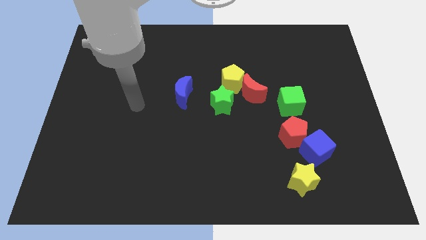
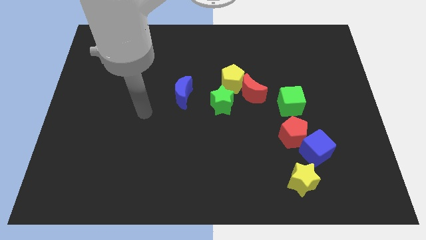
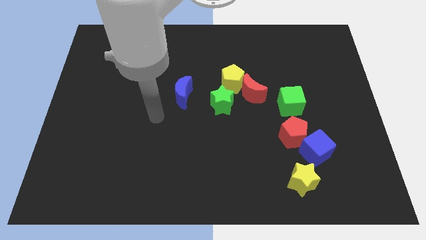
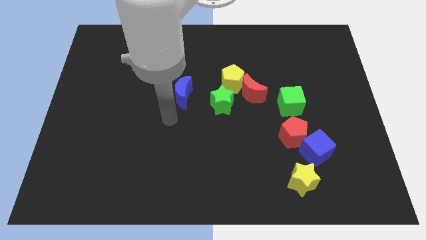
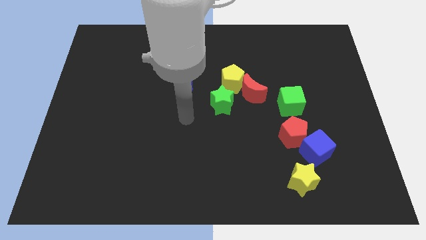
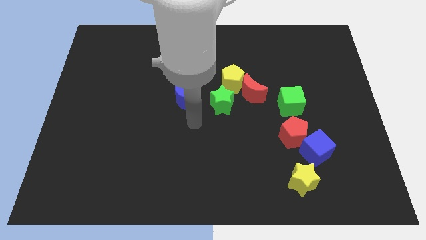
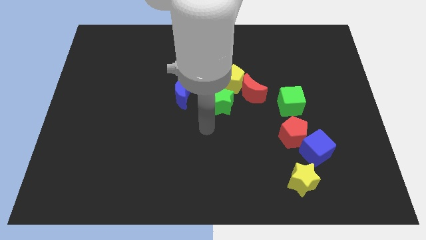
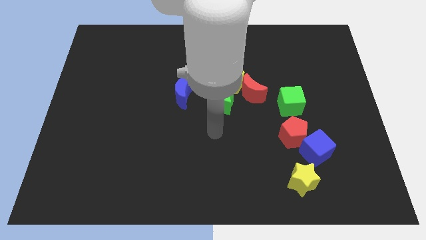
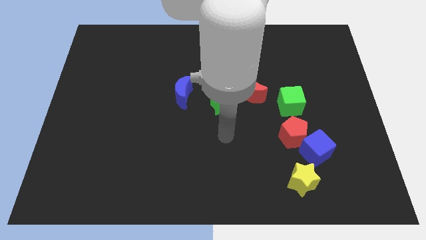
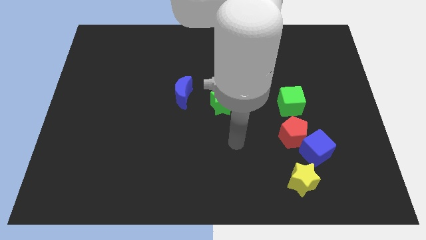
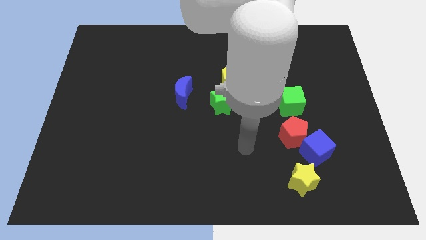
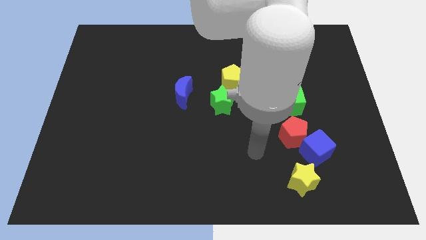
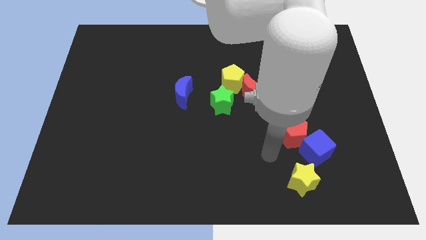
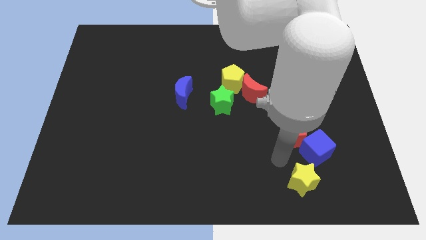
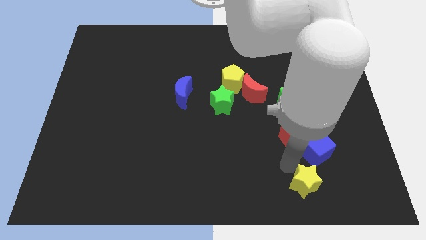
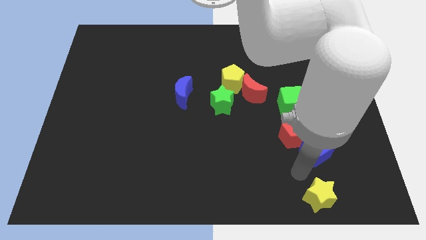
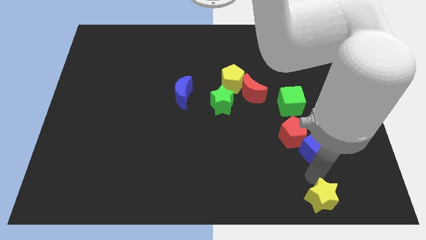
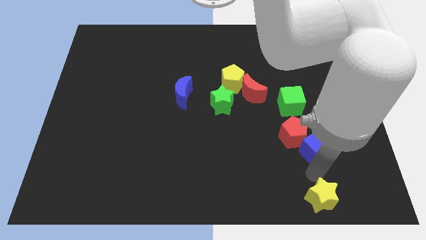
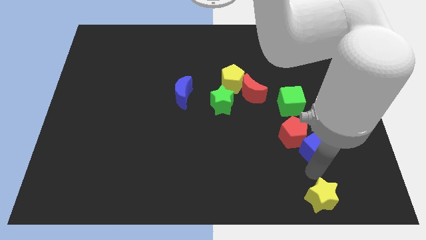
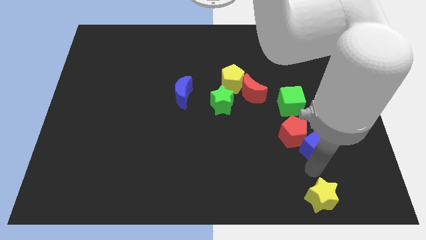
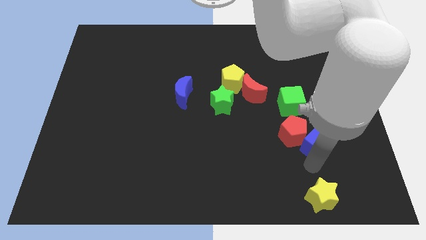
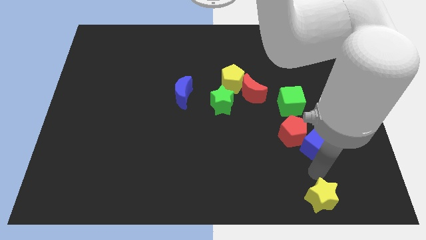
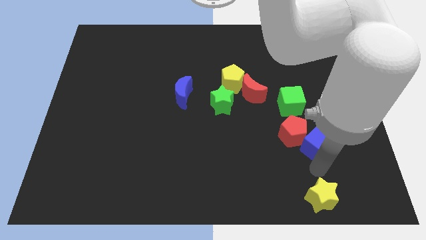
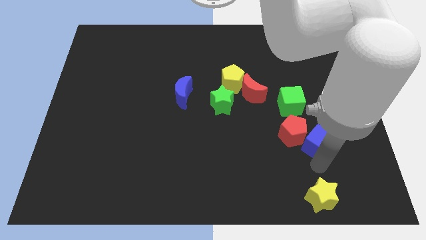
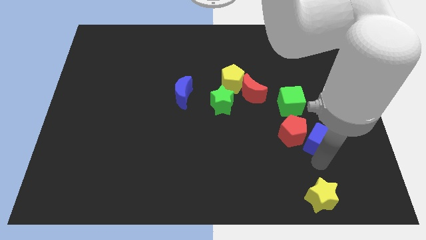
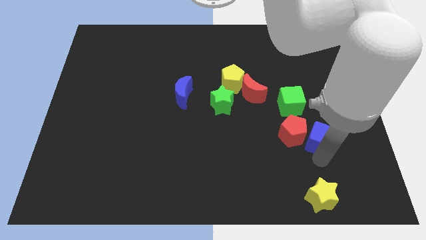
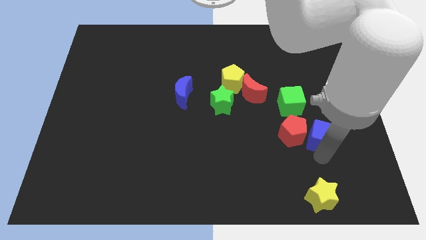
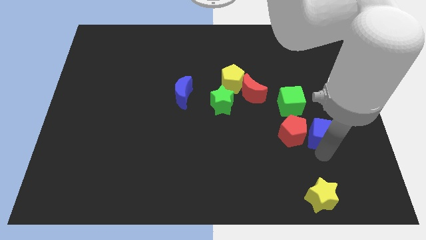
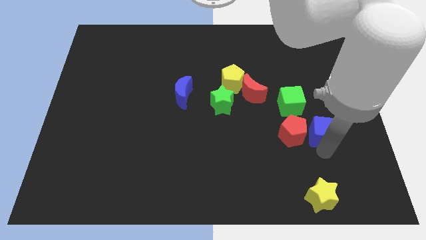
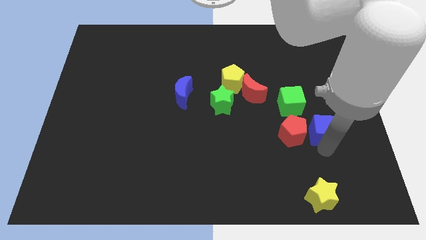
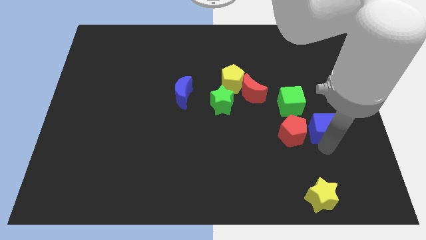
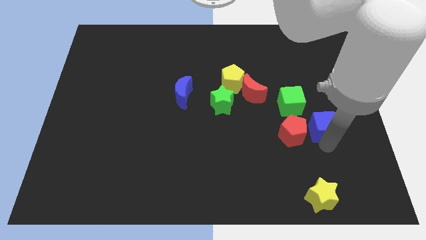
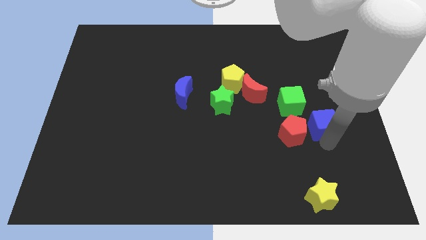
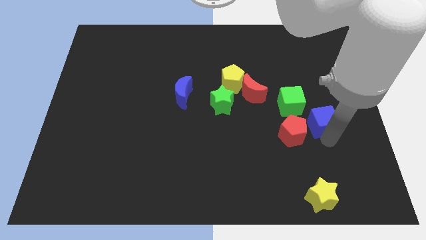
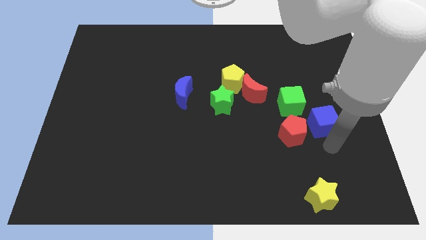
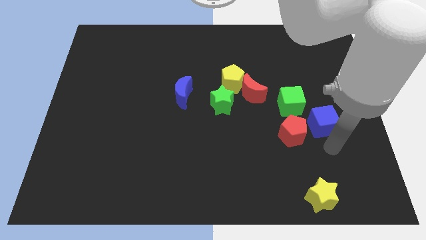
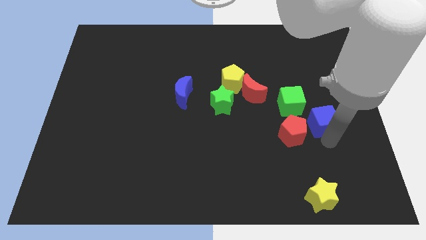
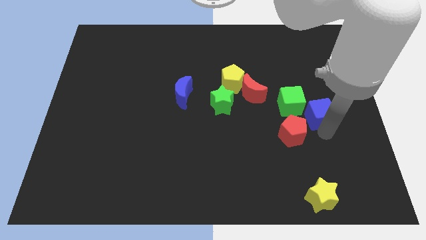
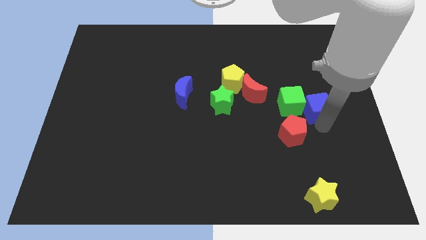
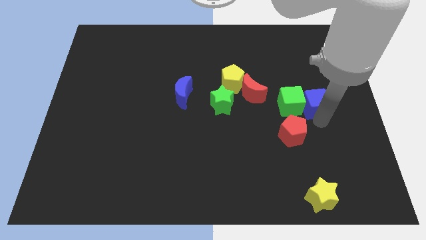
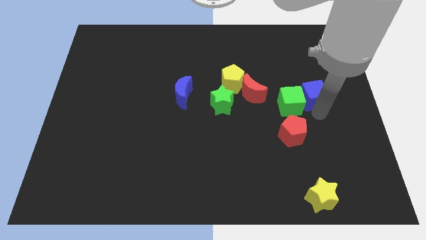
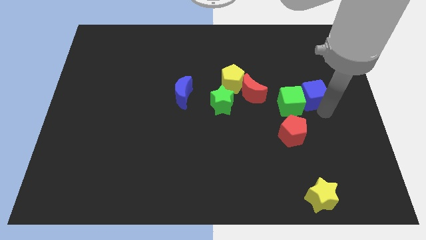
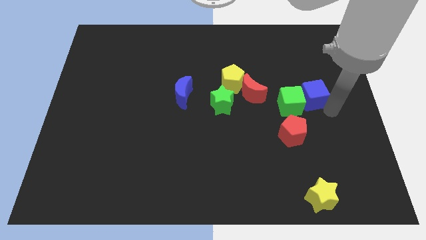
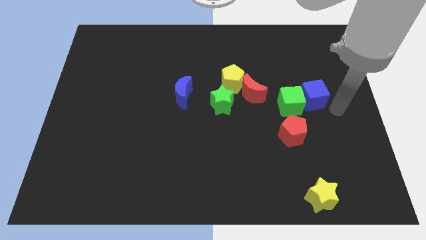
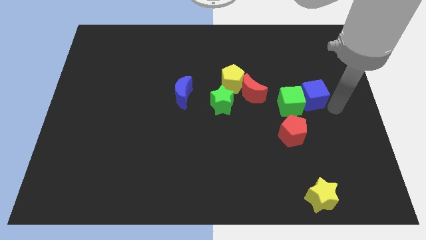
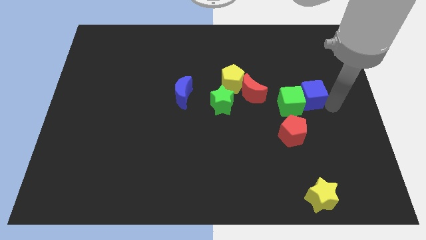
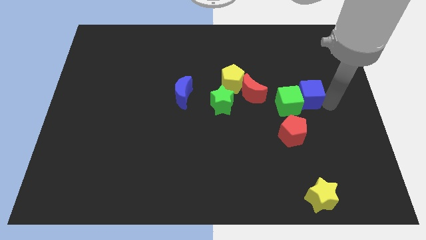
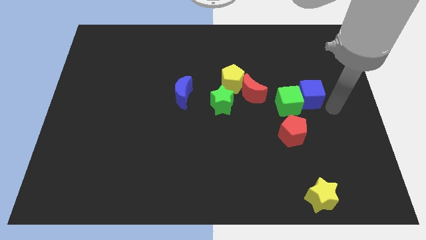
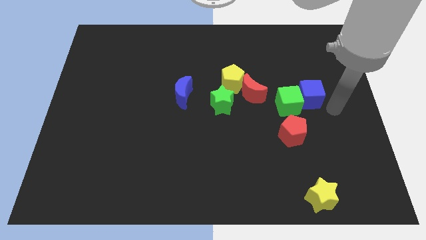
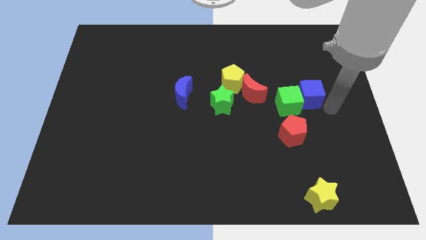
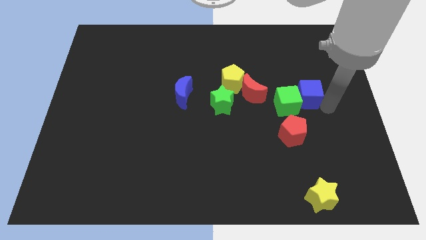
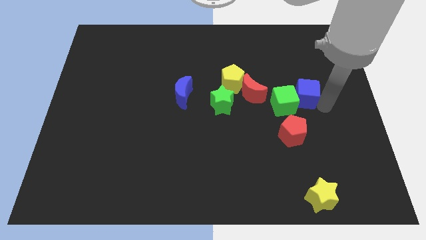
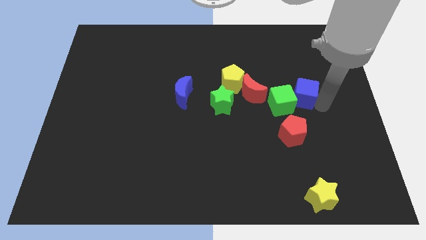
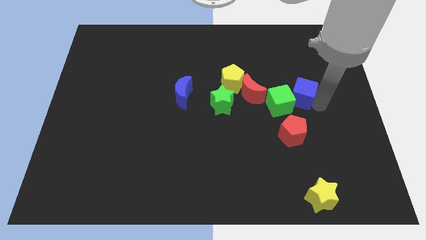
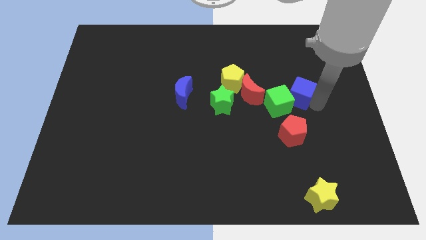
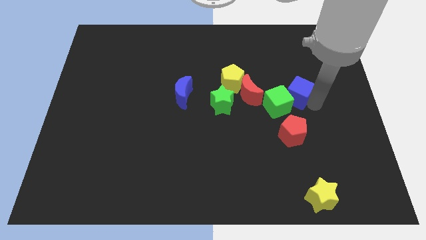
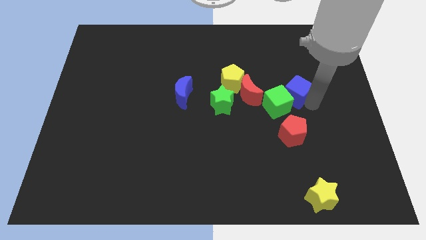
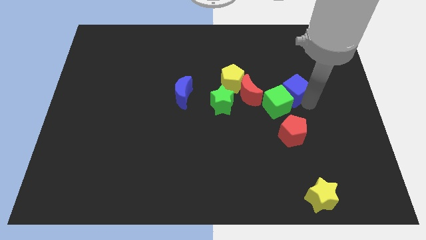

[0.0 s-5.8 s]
slide the blue cube right of the yellow pentagon
